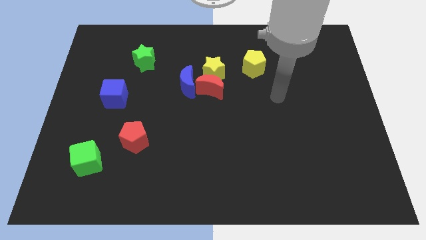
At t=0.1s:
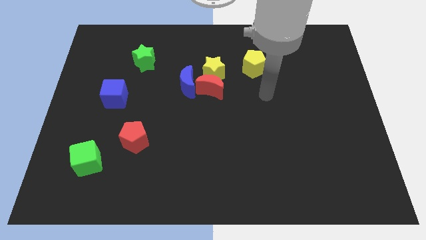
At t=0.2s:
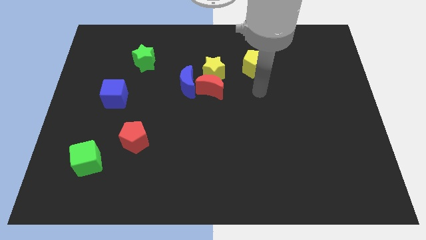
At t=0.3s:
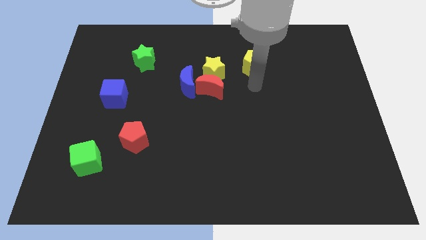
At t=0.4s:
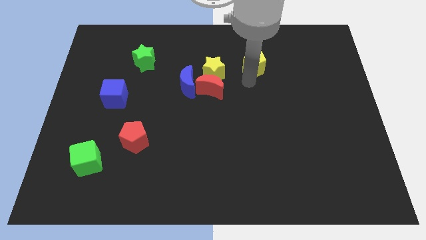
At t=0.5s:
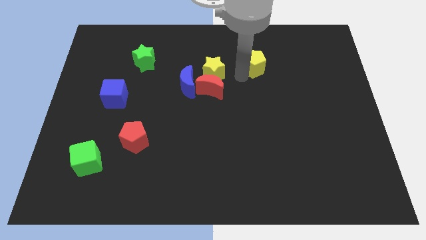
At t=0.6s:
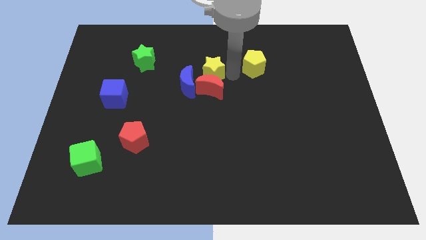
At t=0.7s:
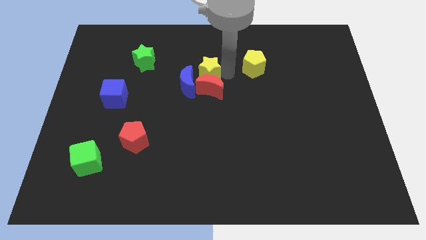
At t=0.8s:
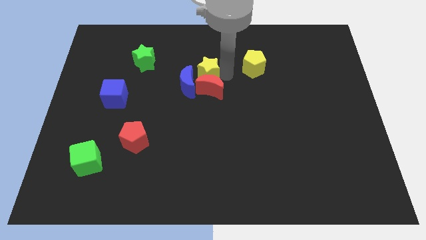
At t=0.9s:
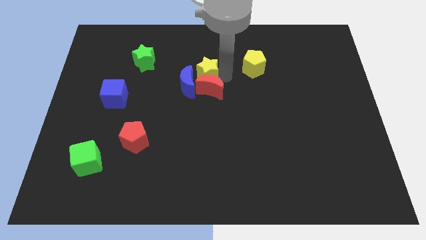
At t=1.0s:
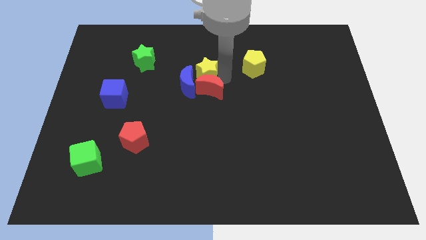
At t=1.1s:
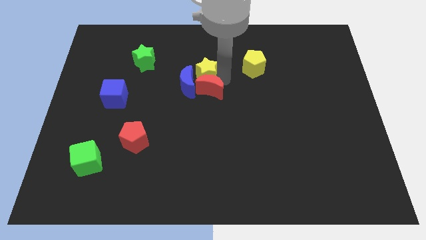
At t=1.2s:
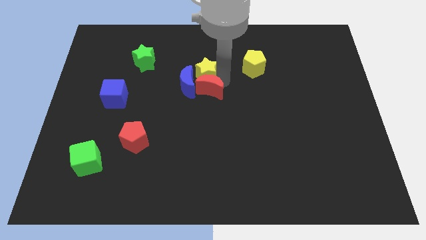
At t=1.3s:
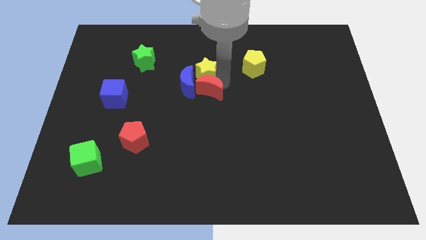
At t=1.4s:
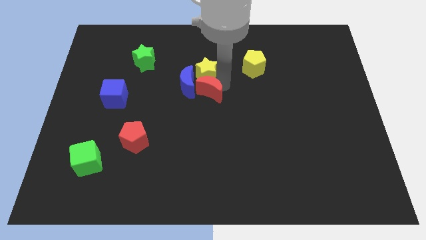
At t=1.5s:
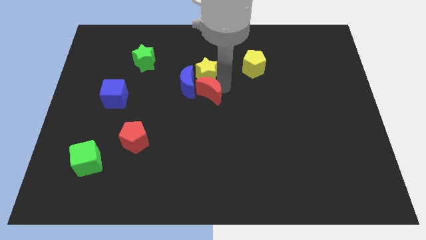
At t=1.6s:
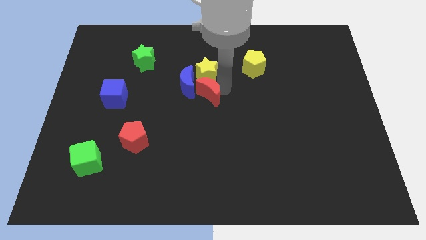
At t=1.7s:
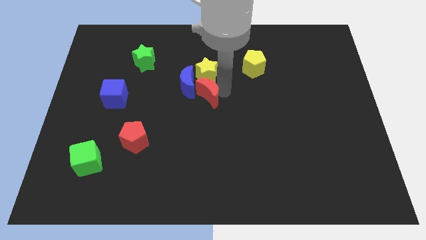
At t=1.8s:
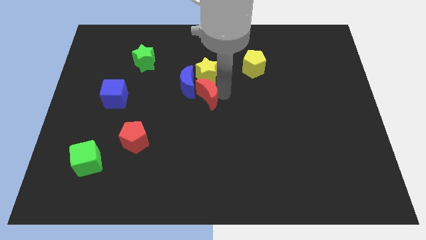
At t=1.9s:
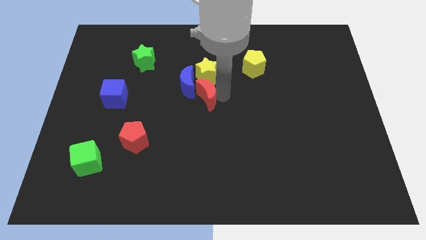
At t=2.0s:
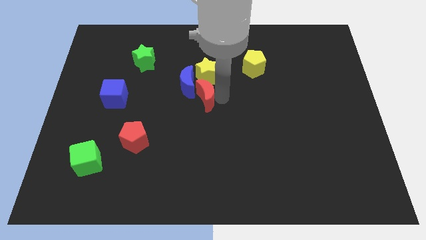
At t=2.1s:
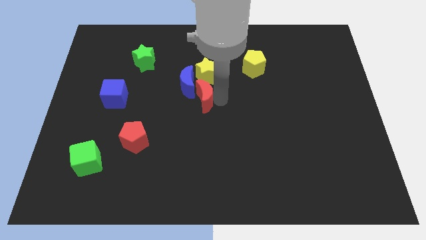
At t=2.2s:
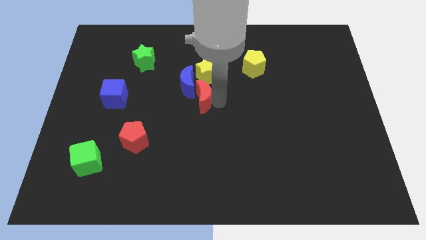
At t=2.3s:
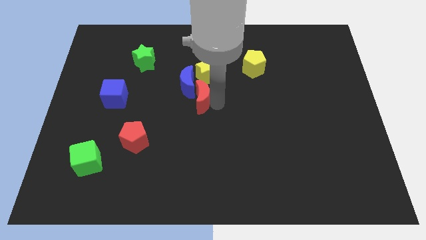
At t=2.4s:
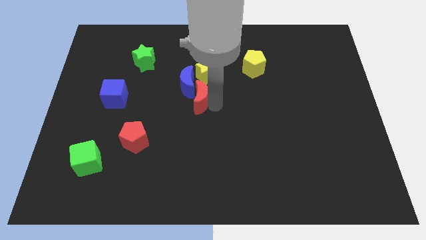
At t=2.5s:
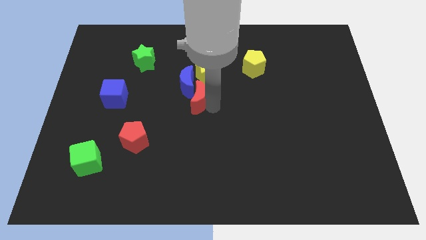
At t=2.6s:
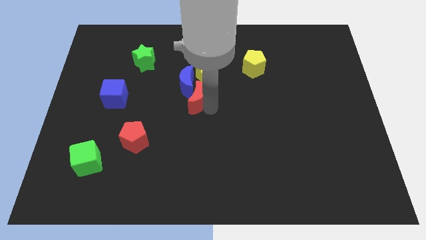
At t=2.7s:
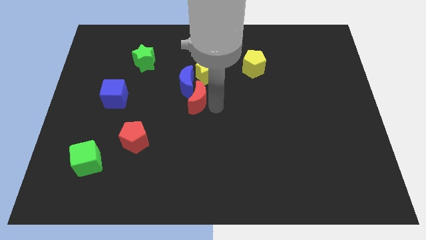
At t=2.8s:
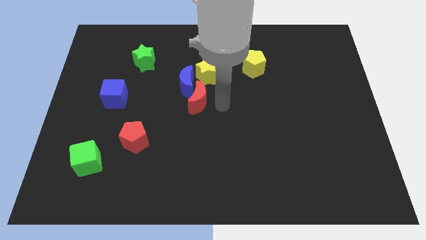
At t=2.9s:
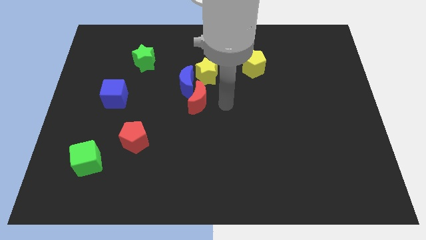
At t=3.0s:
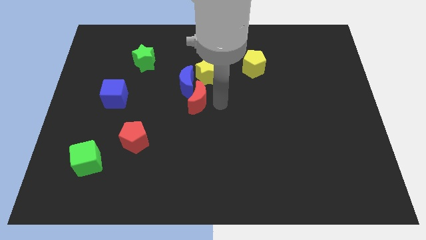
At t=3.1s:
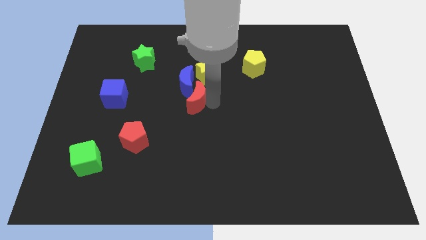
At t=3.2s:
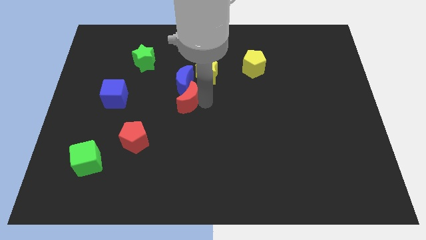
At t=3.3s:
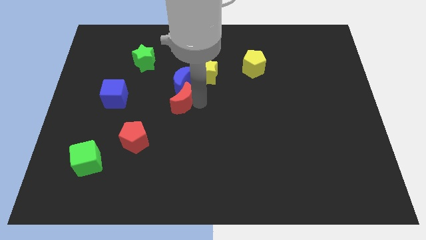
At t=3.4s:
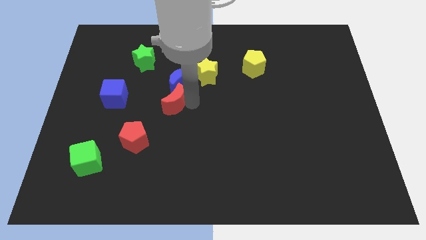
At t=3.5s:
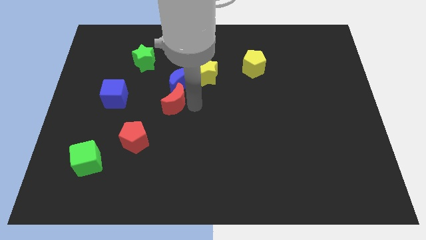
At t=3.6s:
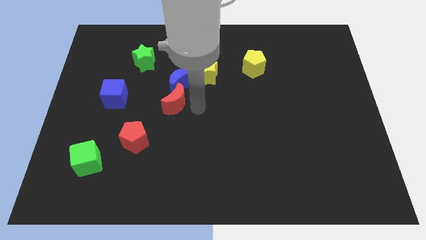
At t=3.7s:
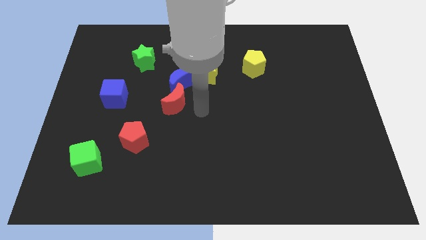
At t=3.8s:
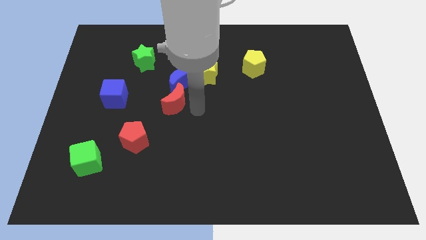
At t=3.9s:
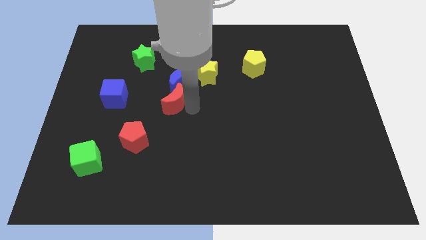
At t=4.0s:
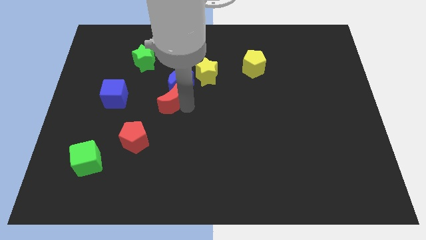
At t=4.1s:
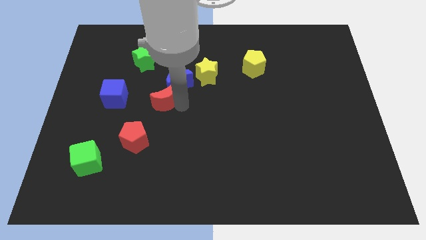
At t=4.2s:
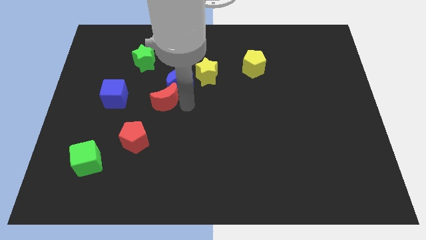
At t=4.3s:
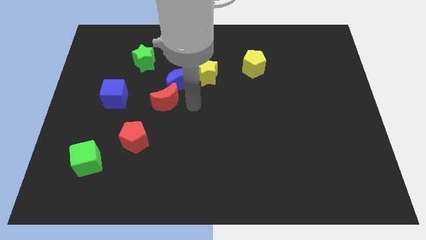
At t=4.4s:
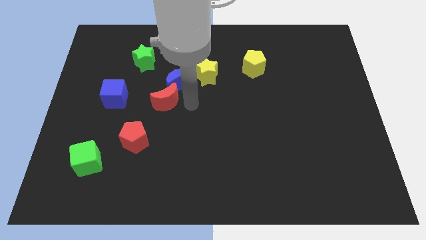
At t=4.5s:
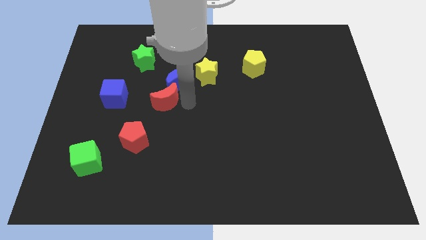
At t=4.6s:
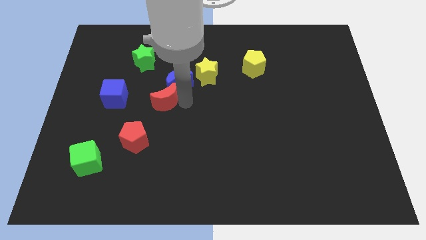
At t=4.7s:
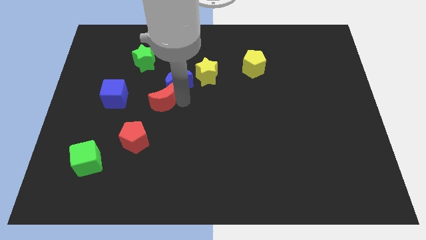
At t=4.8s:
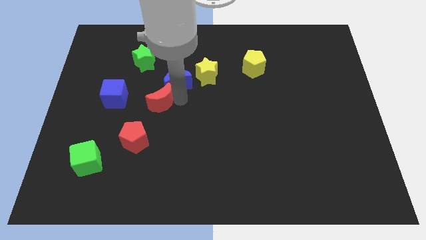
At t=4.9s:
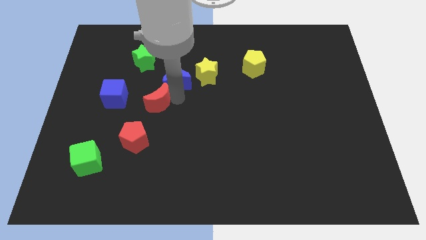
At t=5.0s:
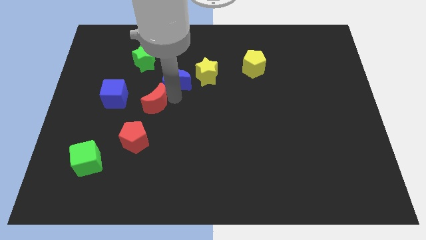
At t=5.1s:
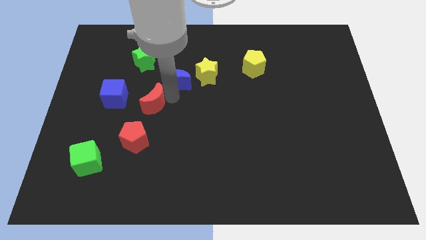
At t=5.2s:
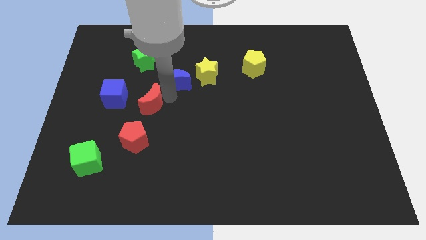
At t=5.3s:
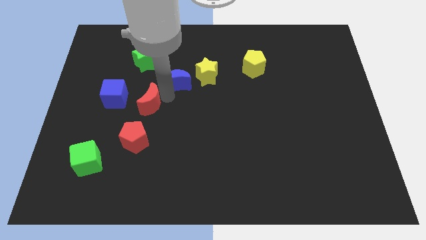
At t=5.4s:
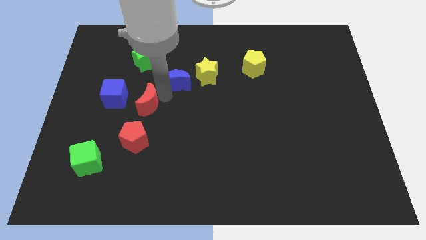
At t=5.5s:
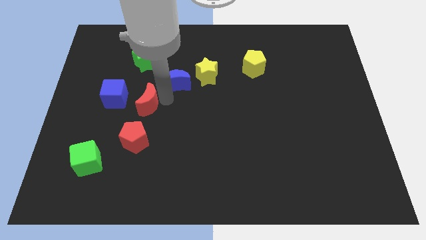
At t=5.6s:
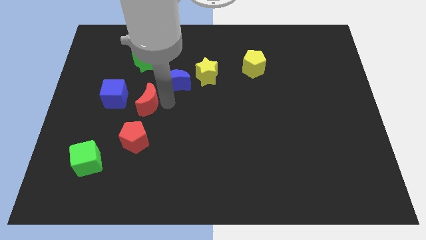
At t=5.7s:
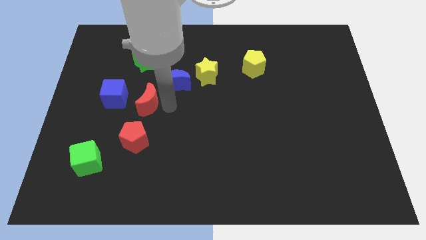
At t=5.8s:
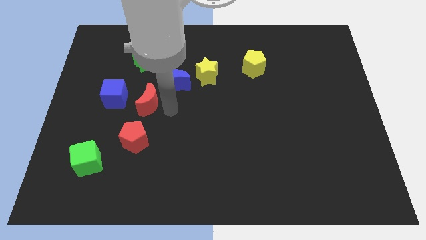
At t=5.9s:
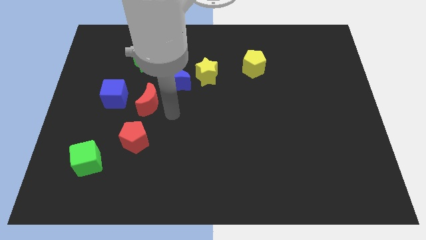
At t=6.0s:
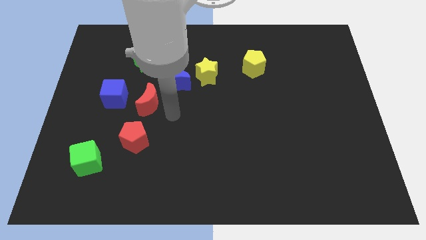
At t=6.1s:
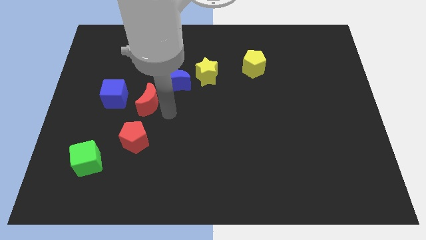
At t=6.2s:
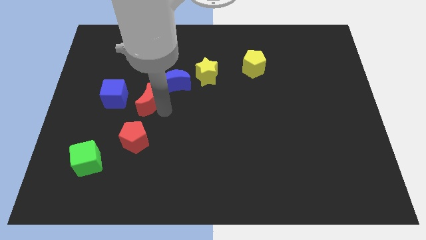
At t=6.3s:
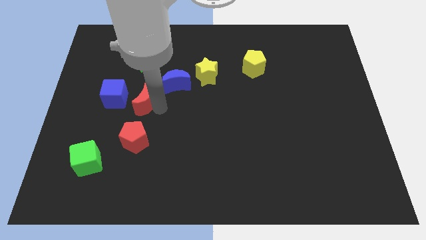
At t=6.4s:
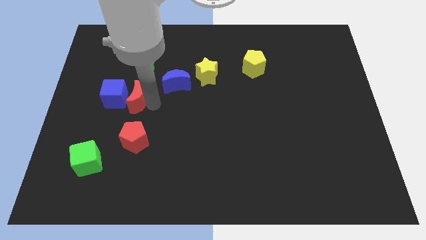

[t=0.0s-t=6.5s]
push the red moon next to the blue cube

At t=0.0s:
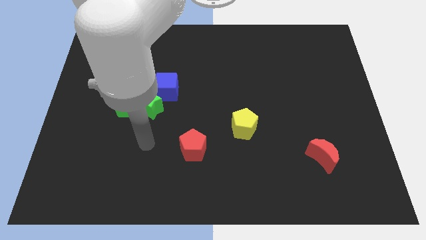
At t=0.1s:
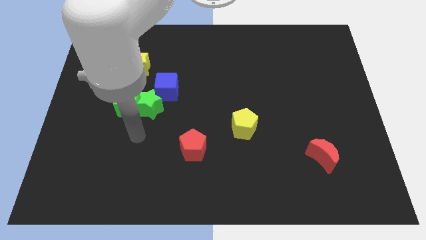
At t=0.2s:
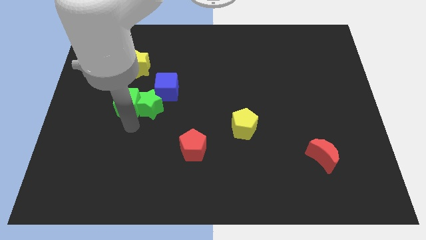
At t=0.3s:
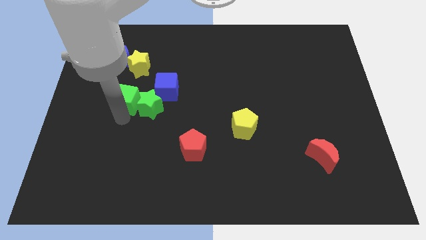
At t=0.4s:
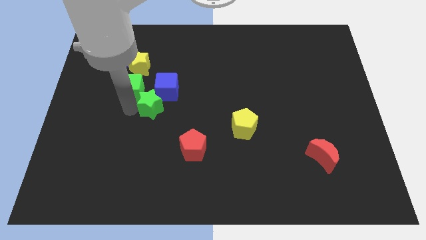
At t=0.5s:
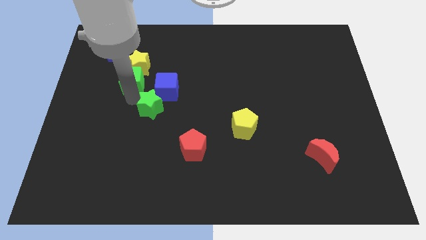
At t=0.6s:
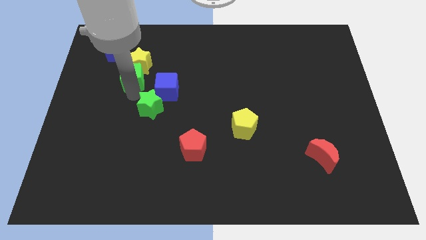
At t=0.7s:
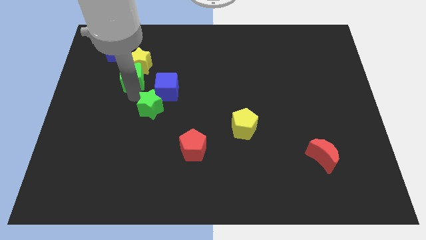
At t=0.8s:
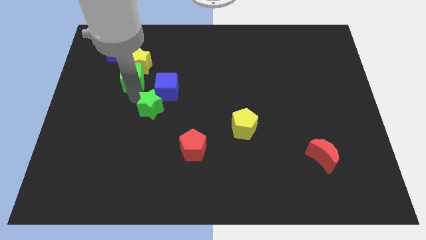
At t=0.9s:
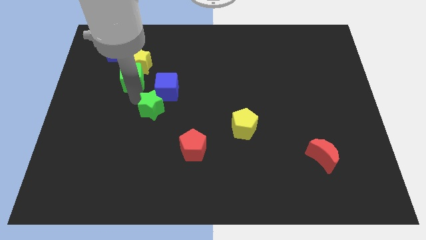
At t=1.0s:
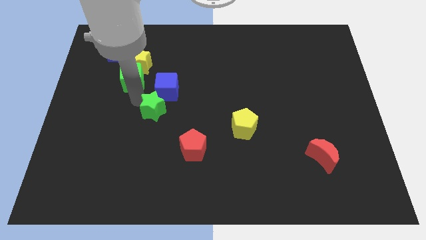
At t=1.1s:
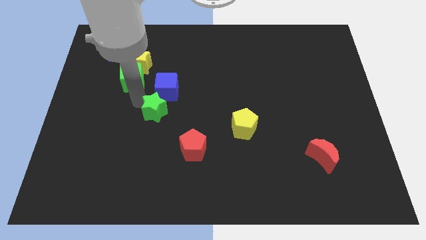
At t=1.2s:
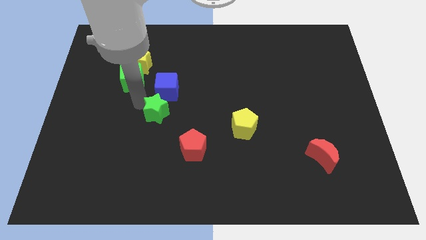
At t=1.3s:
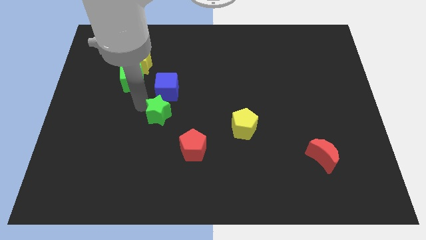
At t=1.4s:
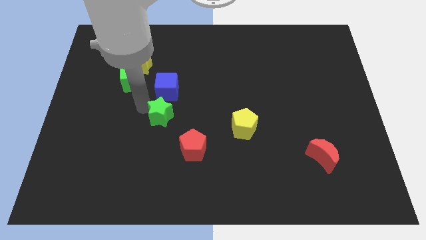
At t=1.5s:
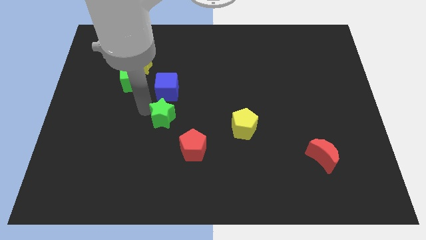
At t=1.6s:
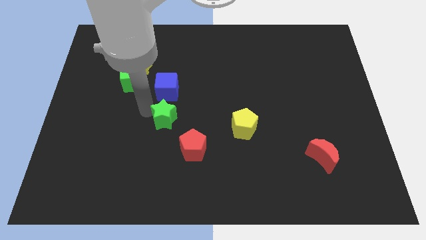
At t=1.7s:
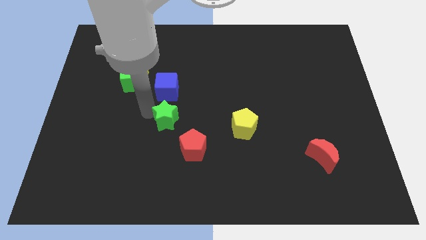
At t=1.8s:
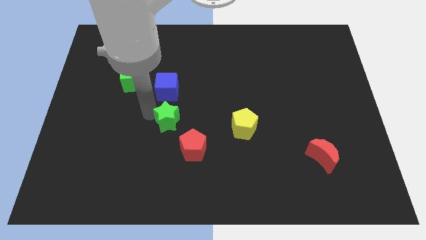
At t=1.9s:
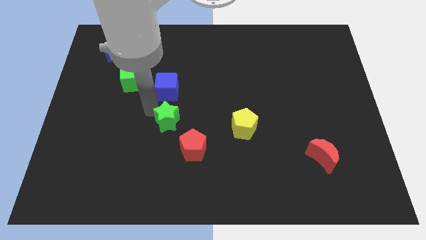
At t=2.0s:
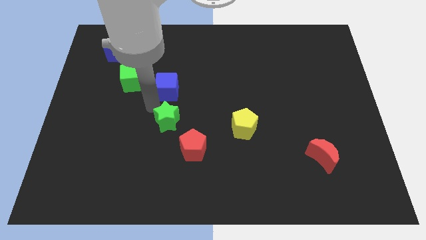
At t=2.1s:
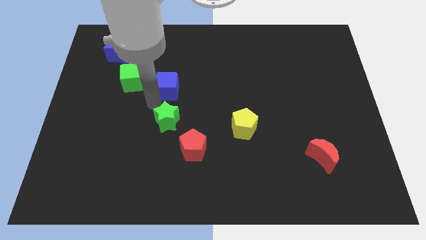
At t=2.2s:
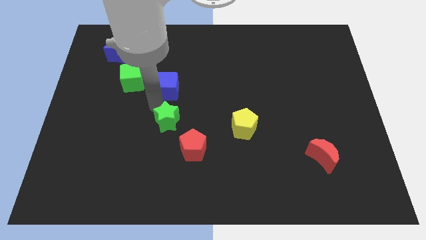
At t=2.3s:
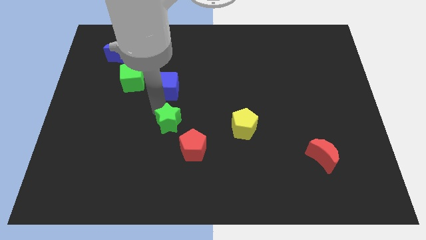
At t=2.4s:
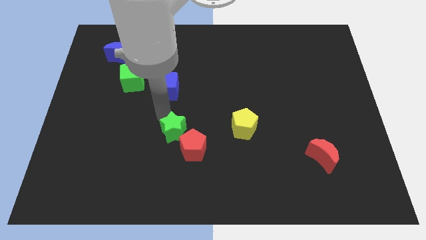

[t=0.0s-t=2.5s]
push the green star towards the red pentagon
